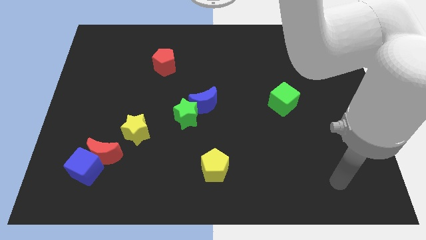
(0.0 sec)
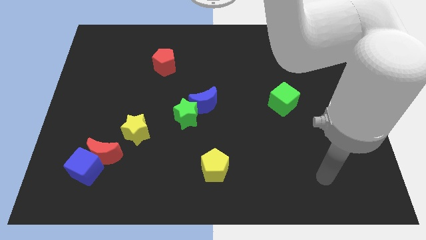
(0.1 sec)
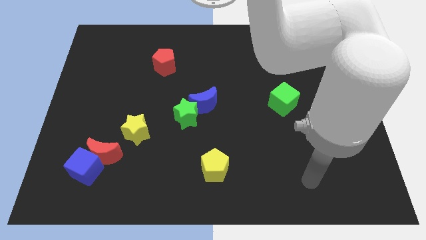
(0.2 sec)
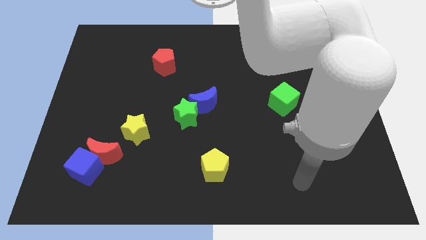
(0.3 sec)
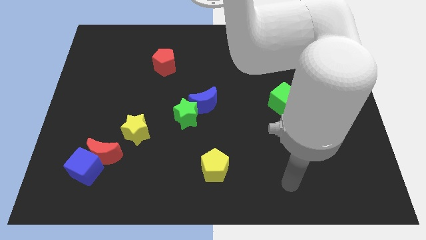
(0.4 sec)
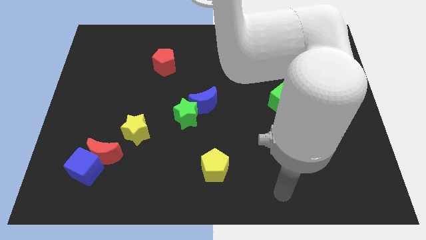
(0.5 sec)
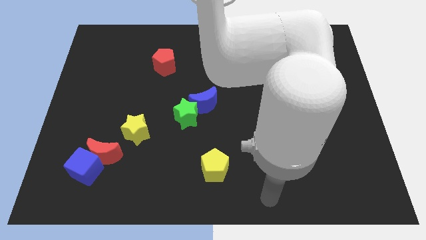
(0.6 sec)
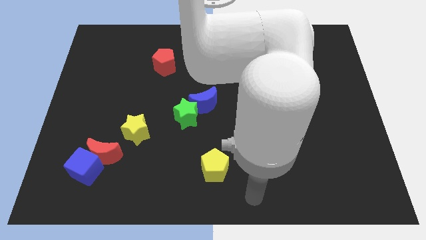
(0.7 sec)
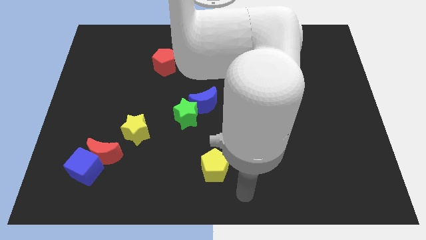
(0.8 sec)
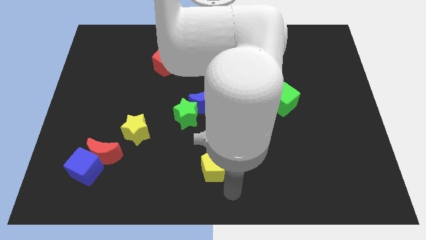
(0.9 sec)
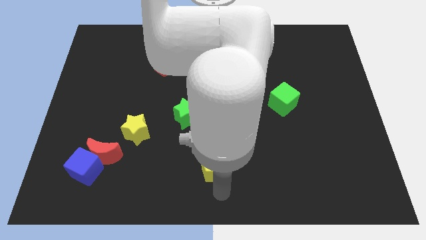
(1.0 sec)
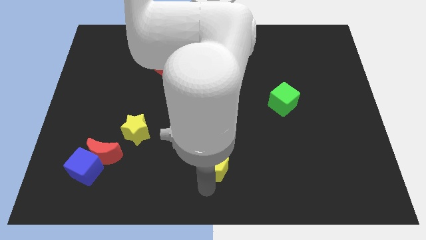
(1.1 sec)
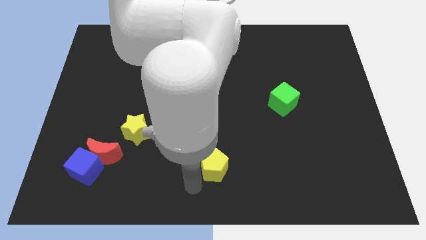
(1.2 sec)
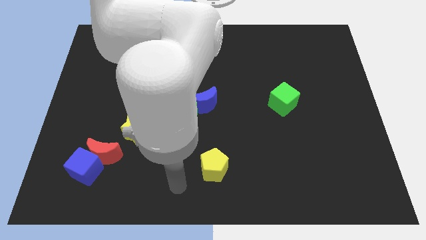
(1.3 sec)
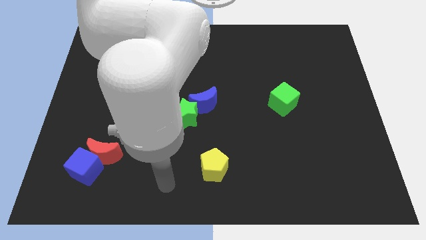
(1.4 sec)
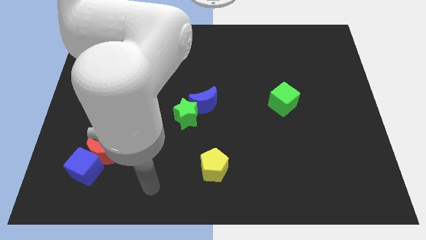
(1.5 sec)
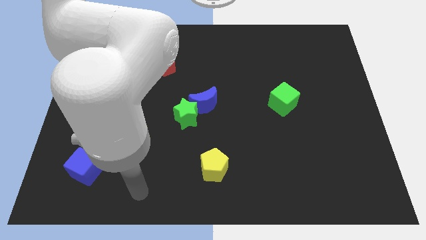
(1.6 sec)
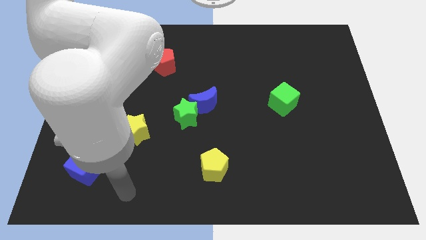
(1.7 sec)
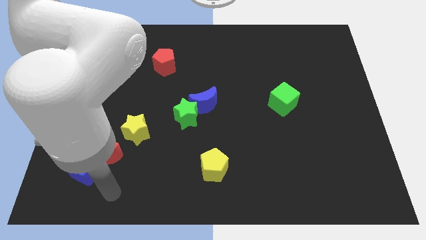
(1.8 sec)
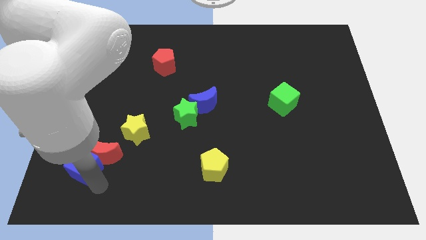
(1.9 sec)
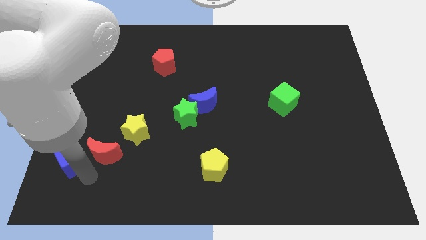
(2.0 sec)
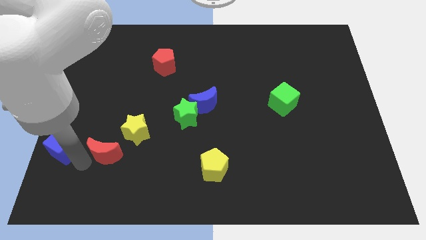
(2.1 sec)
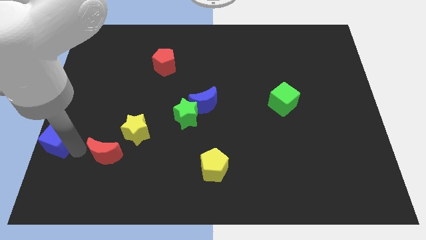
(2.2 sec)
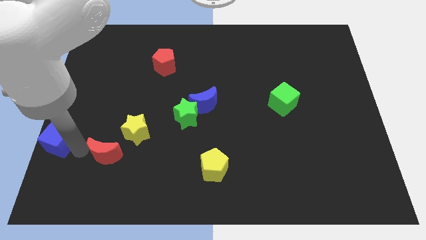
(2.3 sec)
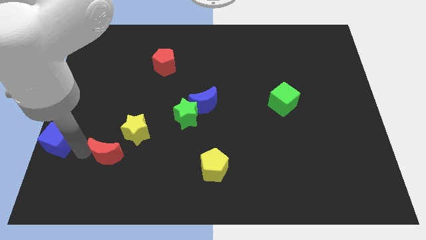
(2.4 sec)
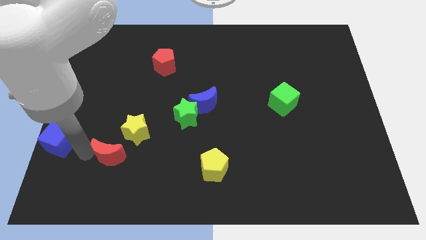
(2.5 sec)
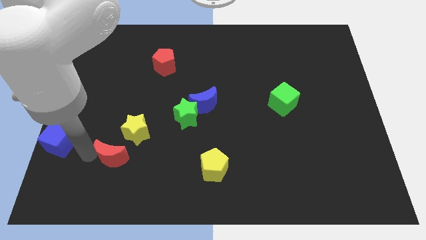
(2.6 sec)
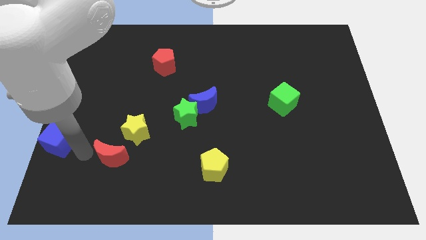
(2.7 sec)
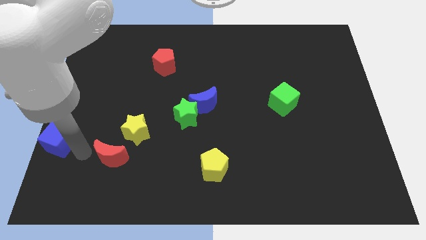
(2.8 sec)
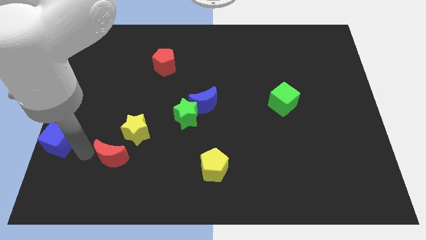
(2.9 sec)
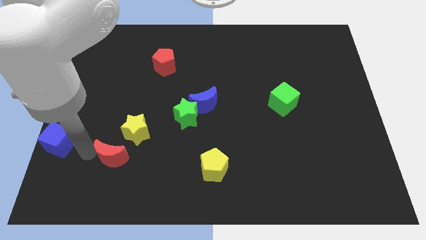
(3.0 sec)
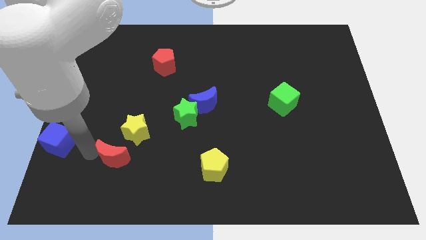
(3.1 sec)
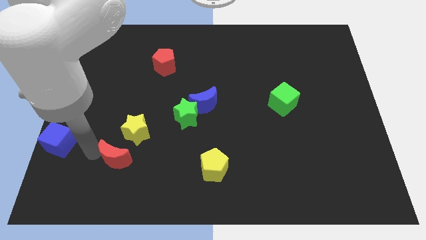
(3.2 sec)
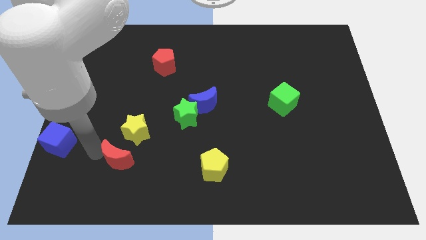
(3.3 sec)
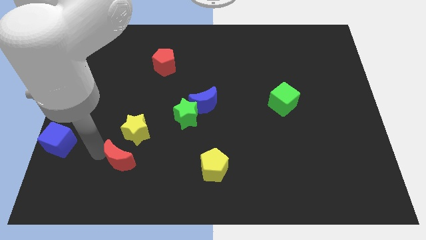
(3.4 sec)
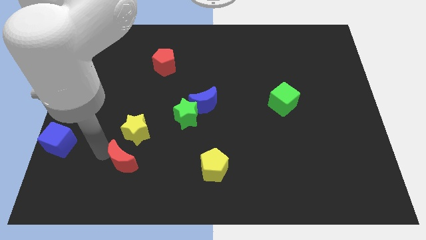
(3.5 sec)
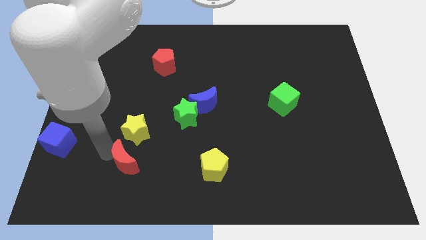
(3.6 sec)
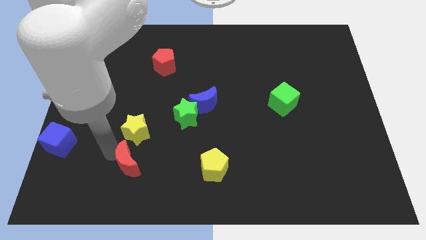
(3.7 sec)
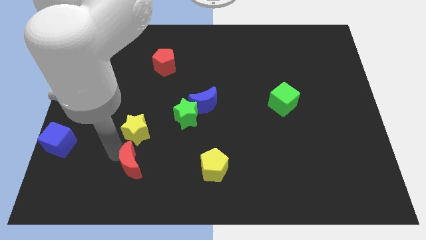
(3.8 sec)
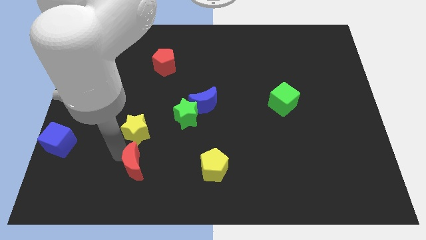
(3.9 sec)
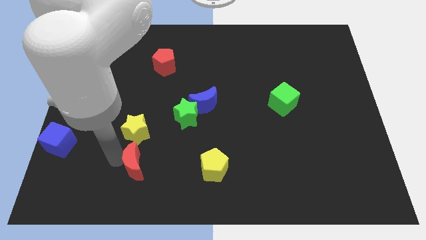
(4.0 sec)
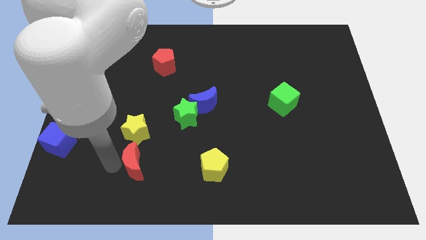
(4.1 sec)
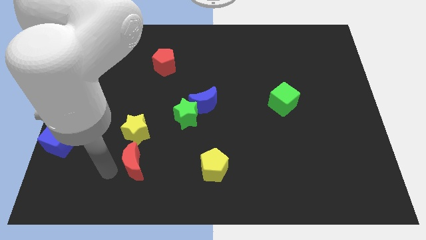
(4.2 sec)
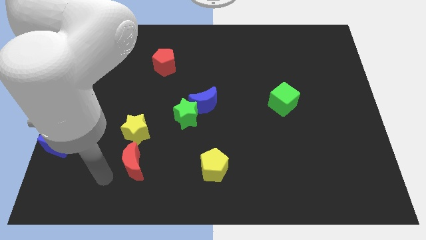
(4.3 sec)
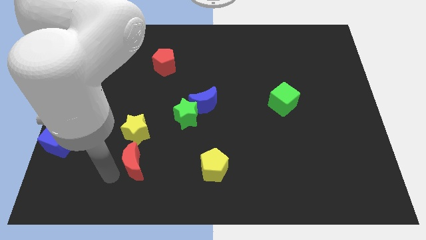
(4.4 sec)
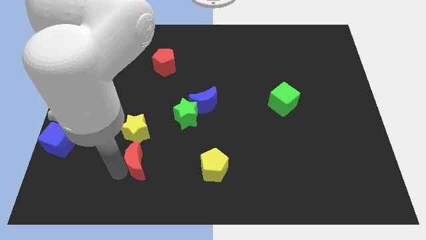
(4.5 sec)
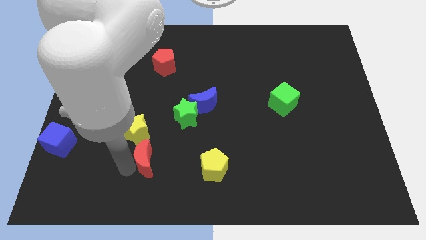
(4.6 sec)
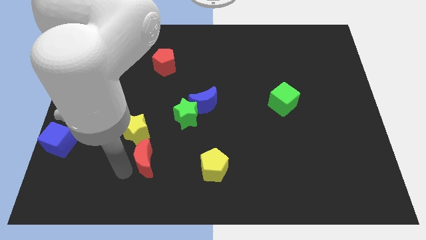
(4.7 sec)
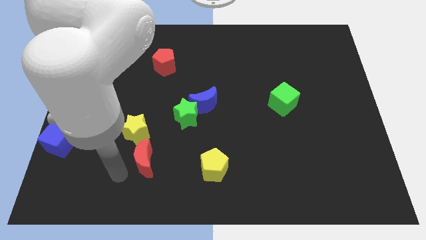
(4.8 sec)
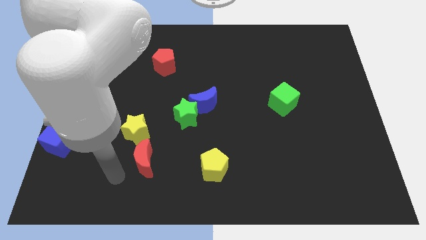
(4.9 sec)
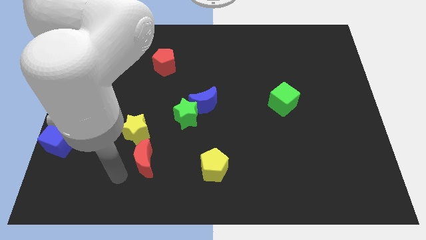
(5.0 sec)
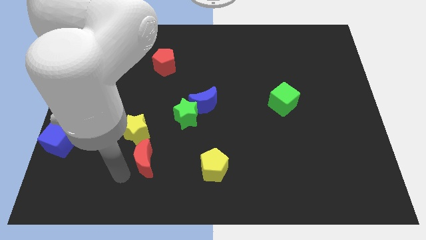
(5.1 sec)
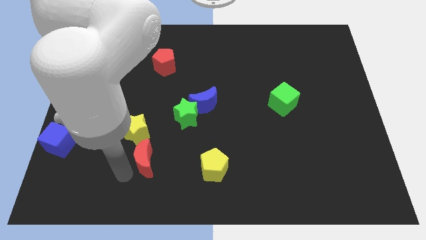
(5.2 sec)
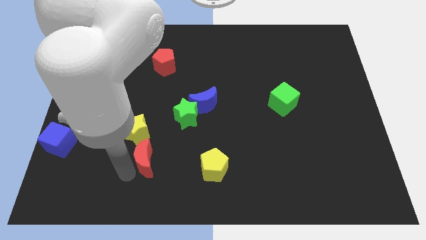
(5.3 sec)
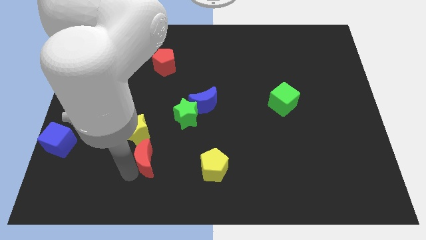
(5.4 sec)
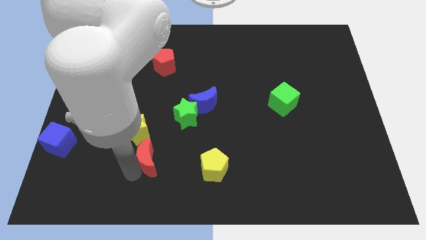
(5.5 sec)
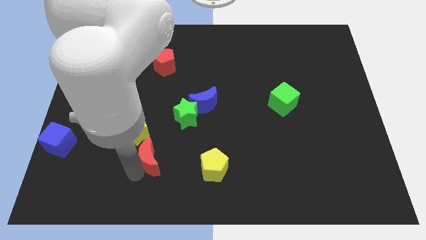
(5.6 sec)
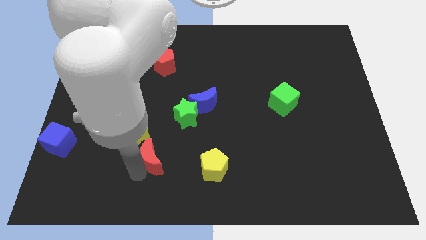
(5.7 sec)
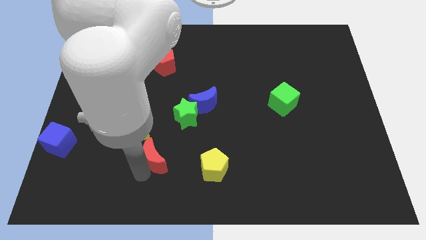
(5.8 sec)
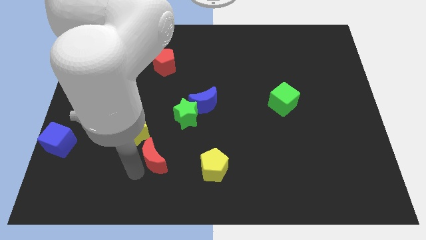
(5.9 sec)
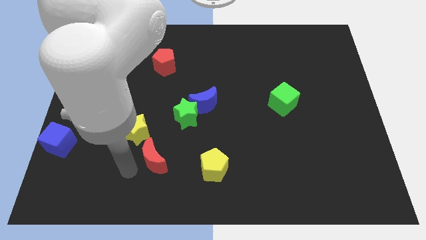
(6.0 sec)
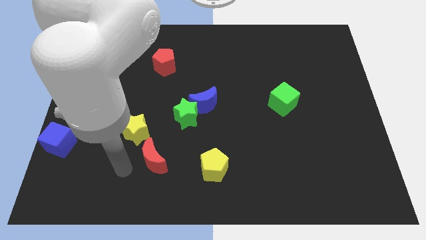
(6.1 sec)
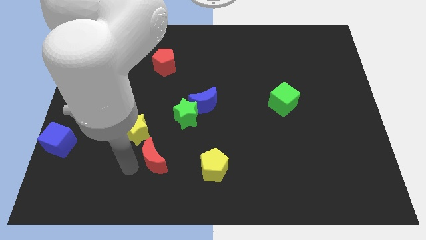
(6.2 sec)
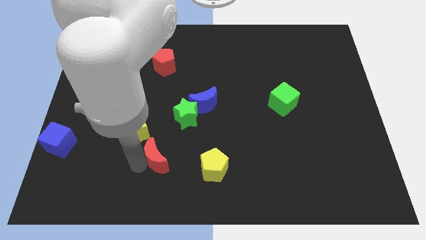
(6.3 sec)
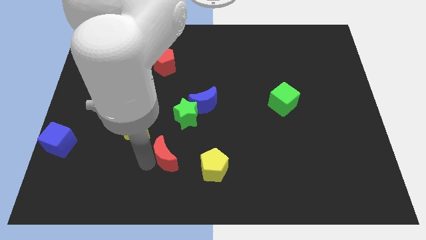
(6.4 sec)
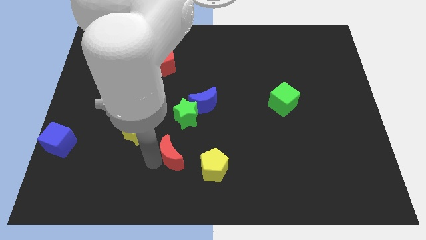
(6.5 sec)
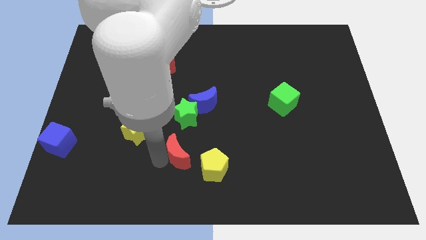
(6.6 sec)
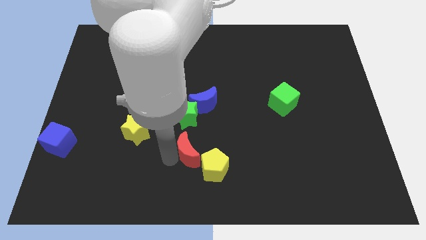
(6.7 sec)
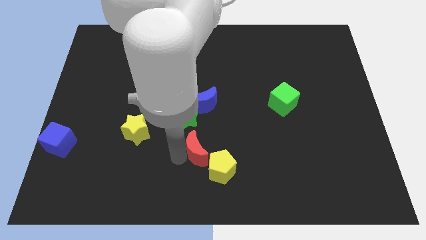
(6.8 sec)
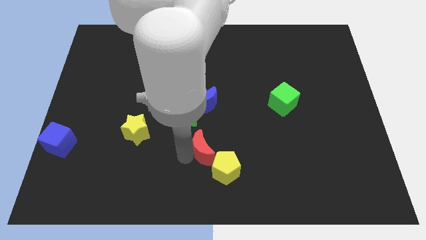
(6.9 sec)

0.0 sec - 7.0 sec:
slide the red moon right

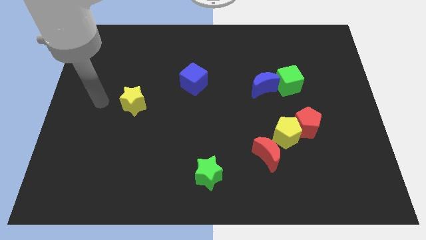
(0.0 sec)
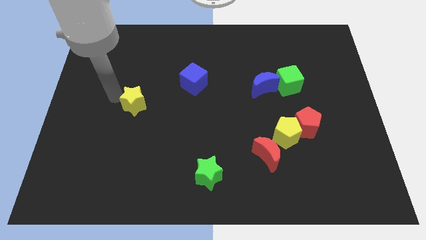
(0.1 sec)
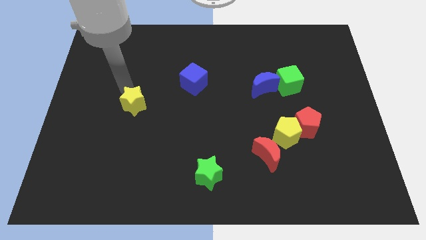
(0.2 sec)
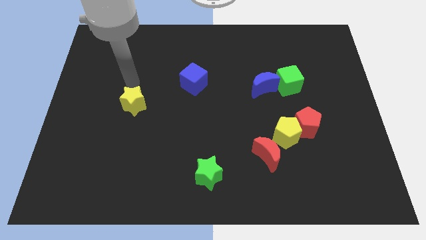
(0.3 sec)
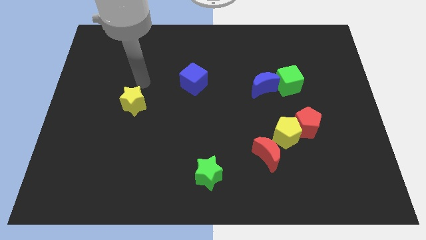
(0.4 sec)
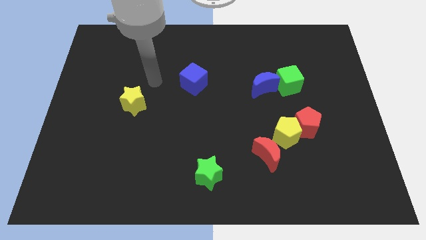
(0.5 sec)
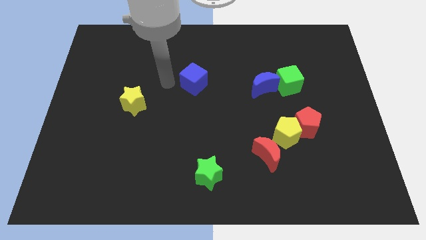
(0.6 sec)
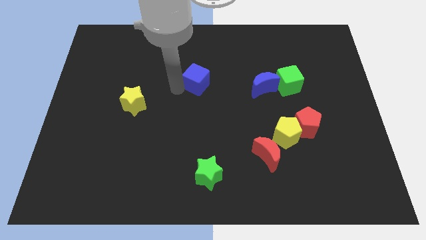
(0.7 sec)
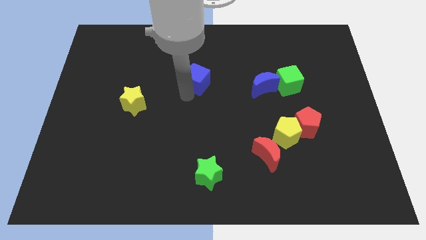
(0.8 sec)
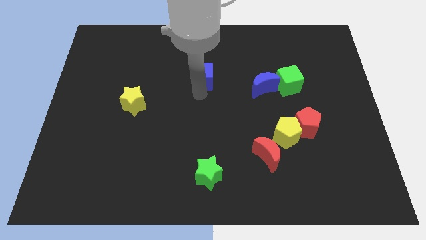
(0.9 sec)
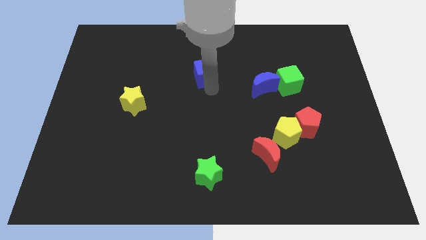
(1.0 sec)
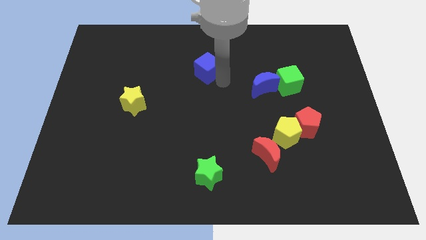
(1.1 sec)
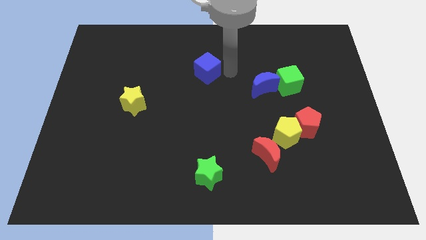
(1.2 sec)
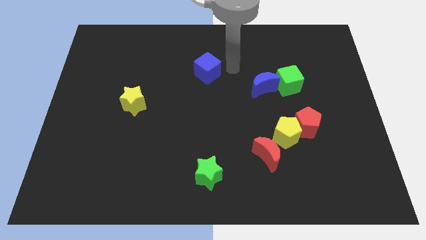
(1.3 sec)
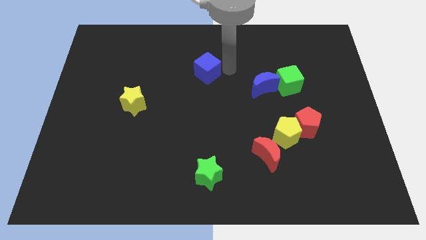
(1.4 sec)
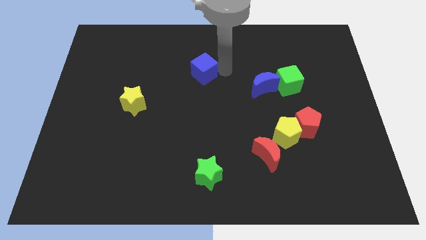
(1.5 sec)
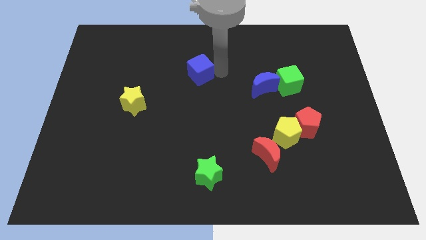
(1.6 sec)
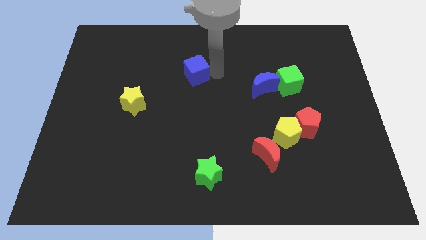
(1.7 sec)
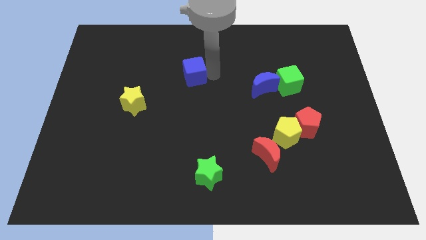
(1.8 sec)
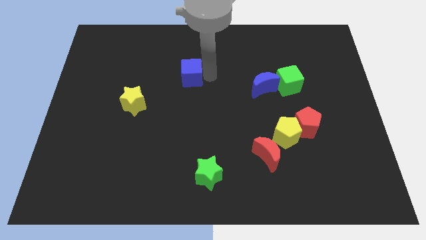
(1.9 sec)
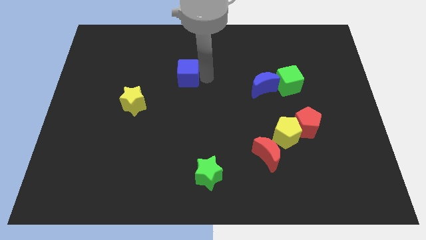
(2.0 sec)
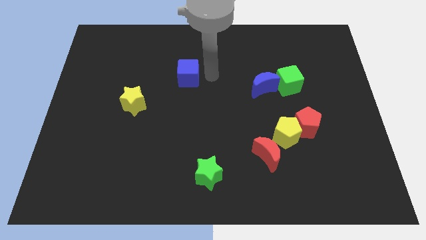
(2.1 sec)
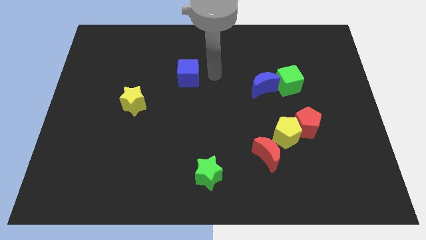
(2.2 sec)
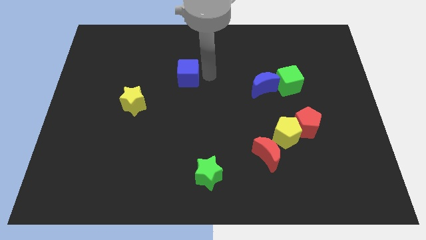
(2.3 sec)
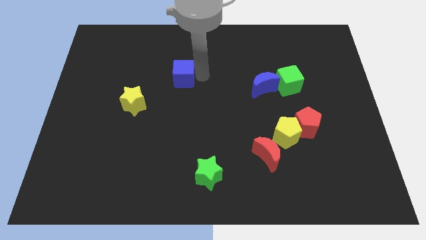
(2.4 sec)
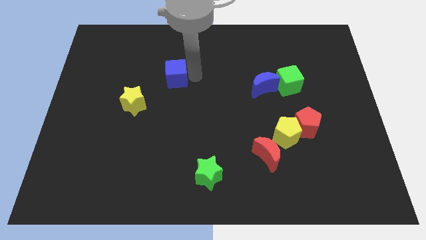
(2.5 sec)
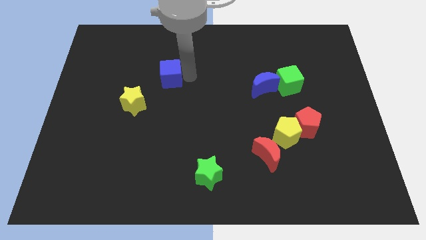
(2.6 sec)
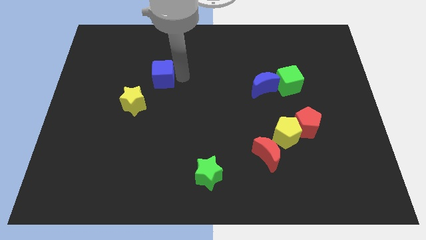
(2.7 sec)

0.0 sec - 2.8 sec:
slightly slide the blue cube left
